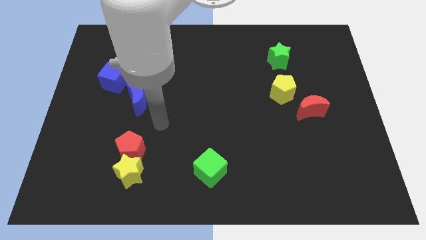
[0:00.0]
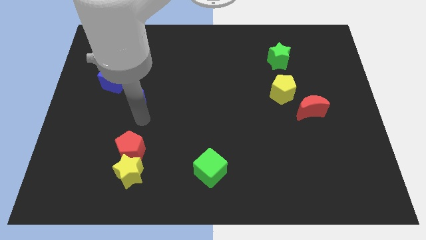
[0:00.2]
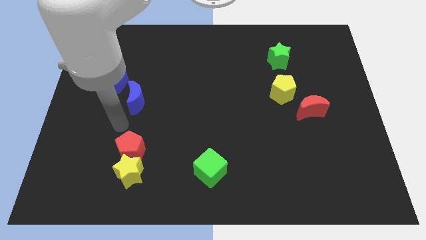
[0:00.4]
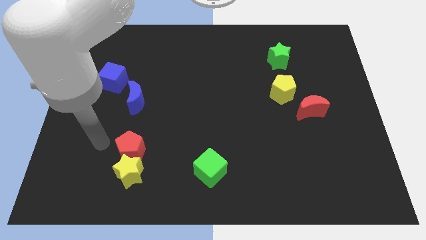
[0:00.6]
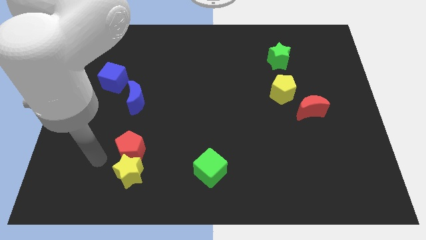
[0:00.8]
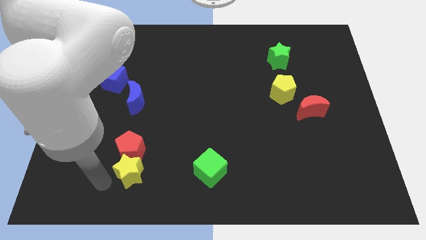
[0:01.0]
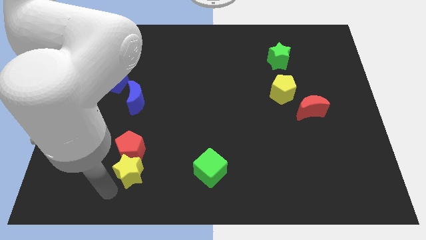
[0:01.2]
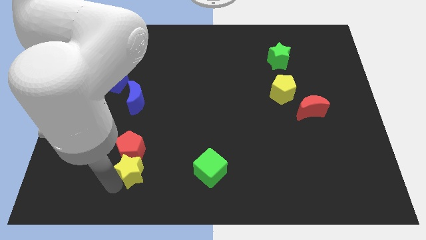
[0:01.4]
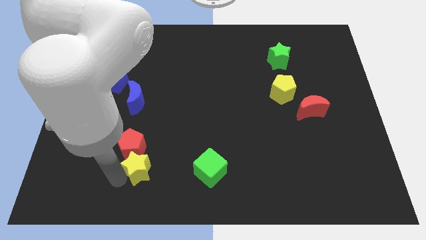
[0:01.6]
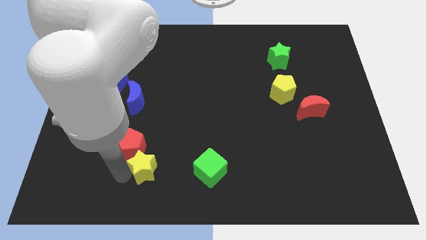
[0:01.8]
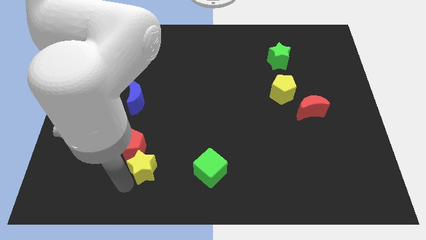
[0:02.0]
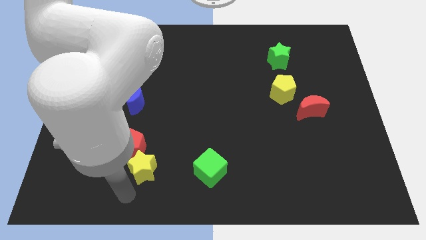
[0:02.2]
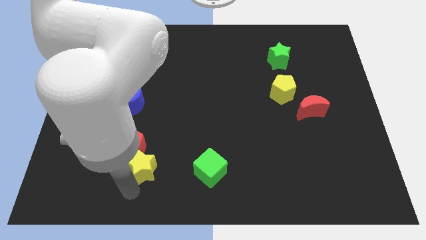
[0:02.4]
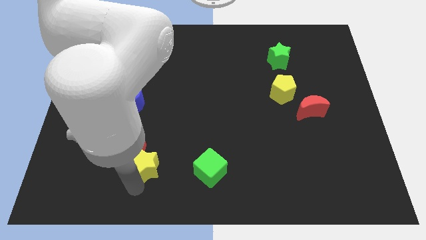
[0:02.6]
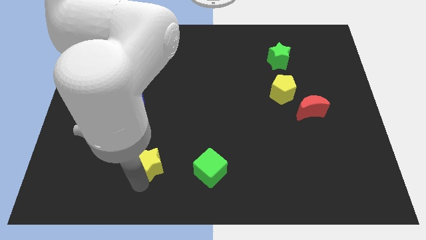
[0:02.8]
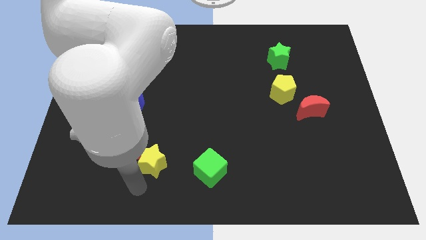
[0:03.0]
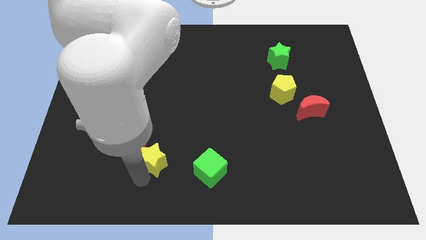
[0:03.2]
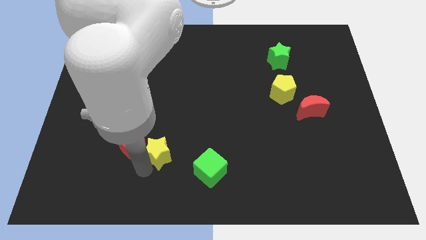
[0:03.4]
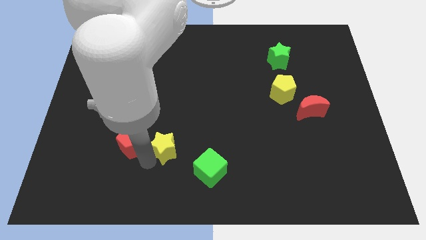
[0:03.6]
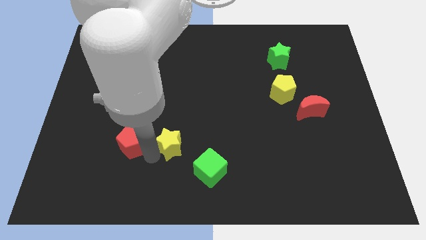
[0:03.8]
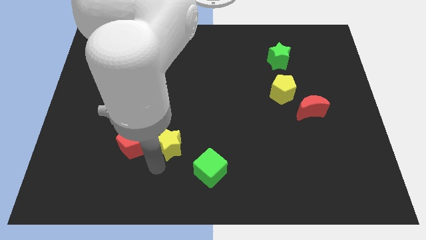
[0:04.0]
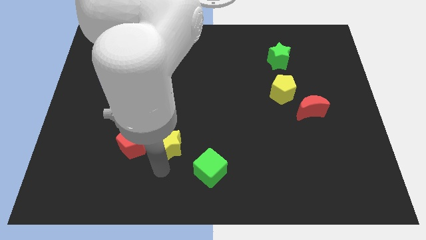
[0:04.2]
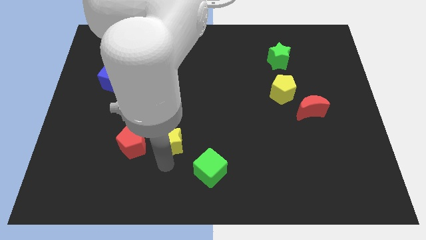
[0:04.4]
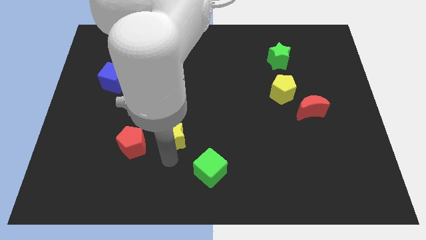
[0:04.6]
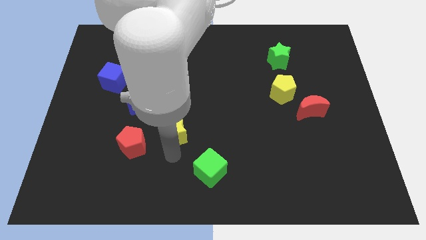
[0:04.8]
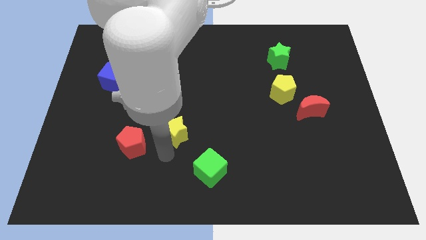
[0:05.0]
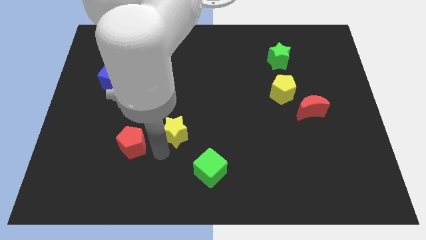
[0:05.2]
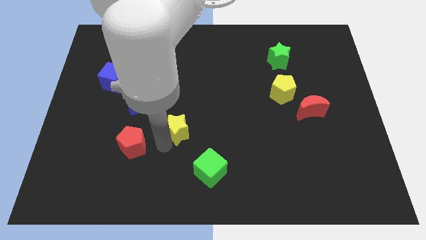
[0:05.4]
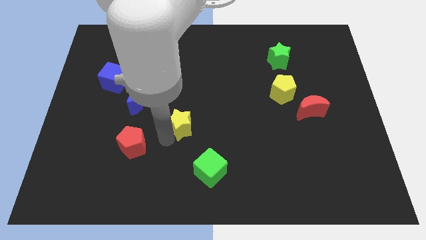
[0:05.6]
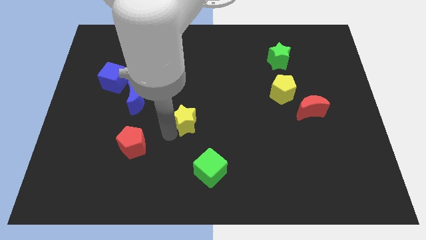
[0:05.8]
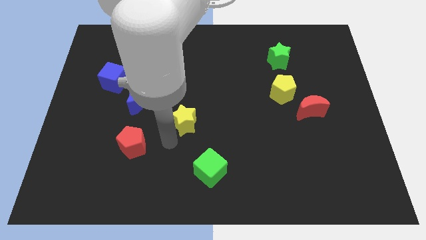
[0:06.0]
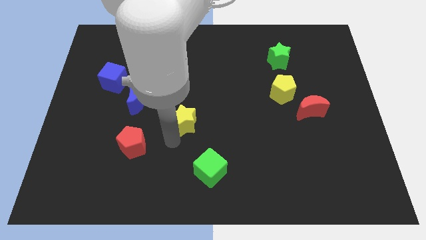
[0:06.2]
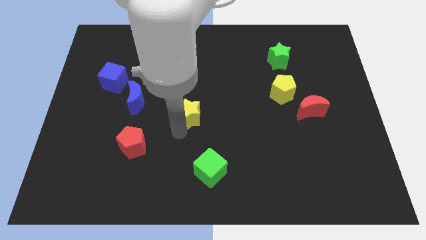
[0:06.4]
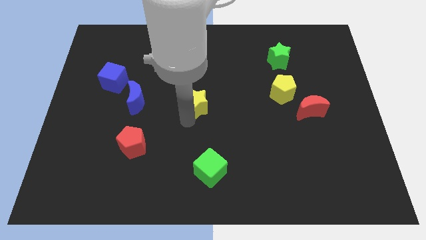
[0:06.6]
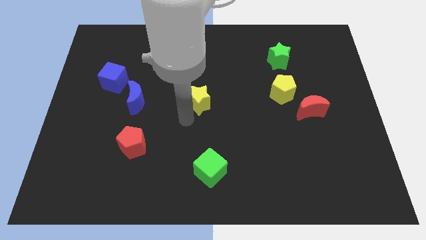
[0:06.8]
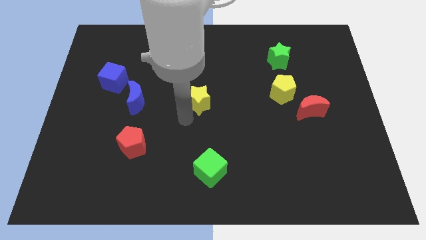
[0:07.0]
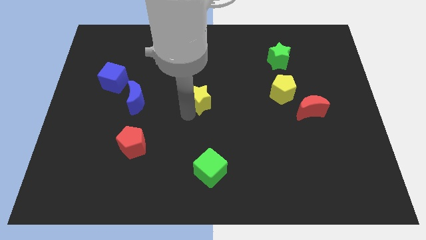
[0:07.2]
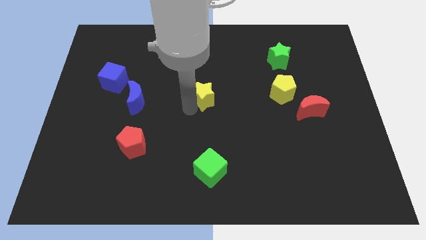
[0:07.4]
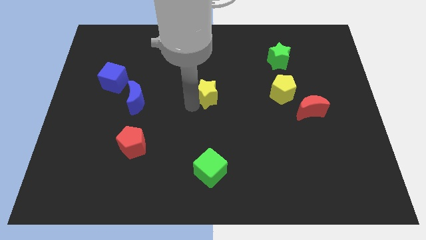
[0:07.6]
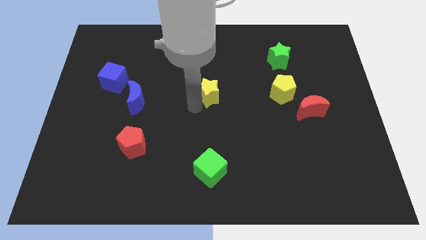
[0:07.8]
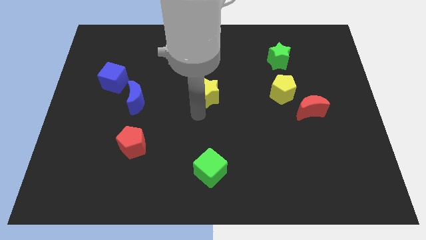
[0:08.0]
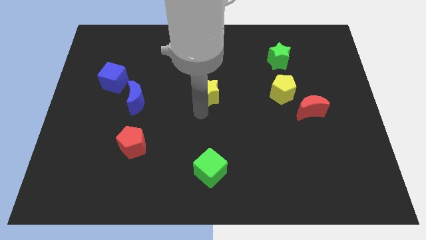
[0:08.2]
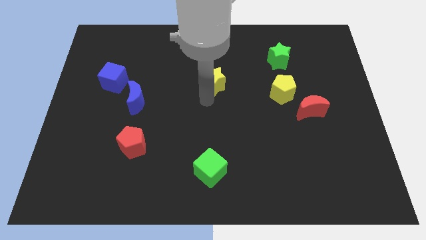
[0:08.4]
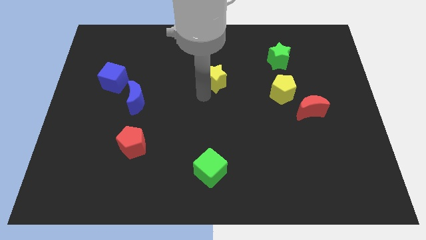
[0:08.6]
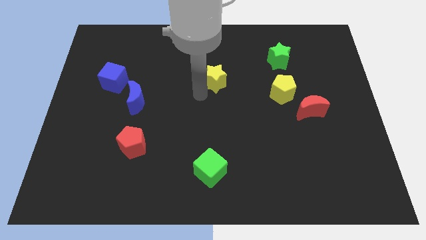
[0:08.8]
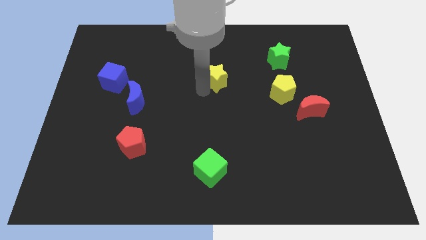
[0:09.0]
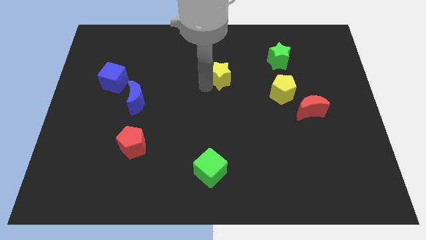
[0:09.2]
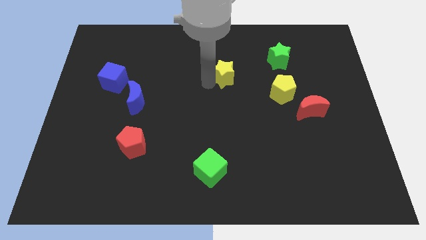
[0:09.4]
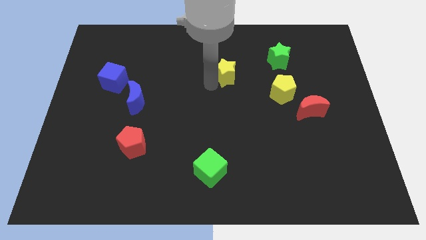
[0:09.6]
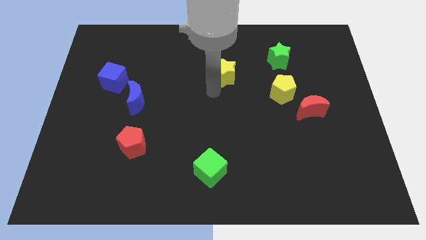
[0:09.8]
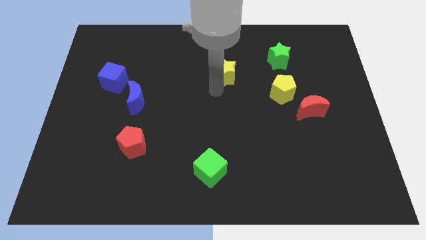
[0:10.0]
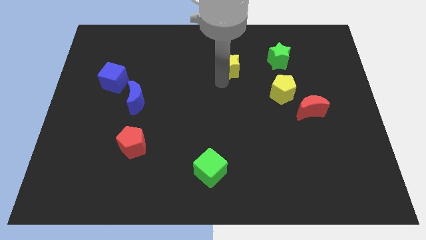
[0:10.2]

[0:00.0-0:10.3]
put the yellow star just left of the green star

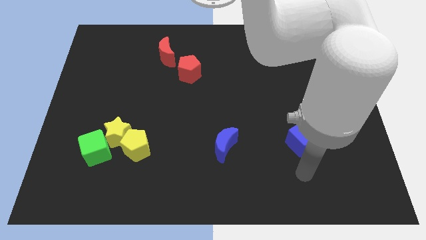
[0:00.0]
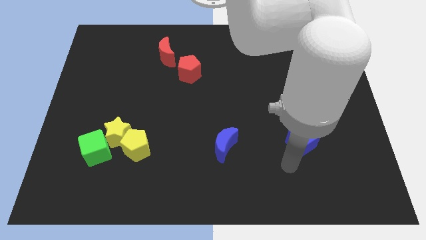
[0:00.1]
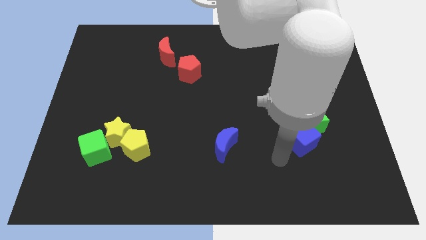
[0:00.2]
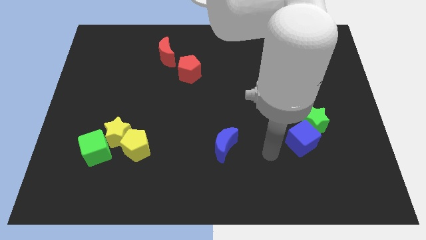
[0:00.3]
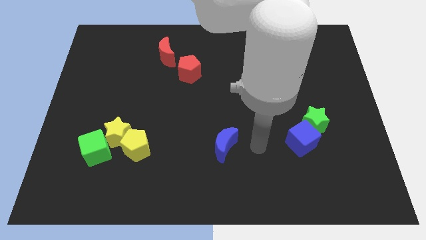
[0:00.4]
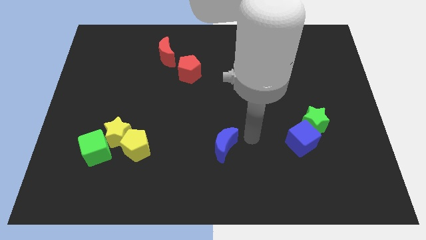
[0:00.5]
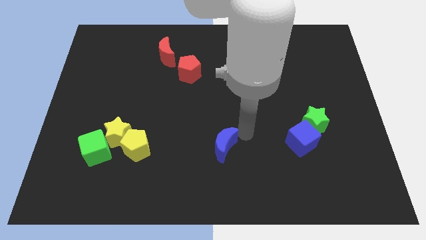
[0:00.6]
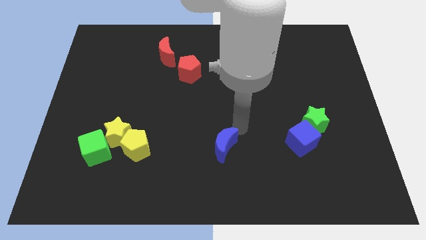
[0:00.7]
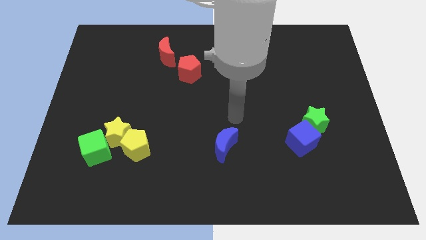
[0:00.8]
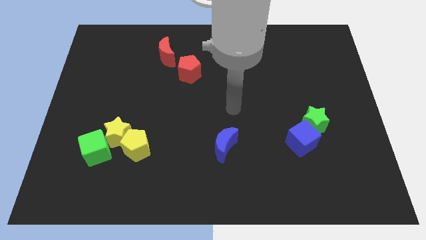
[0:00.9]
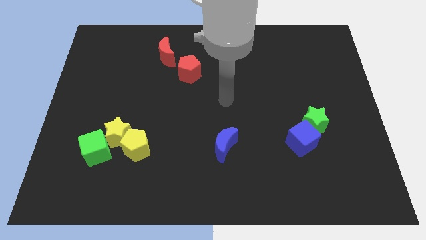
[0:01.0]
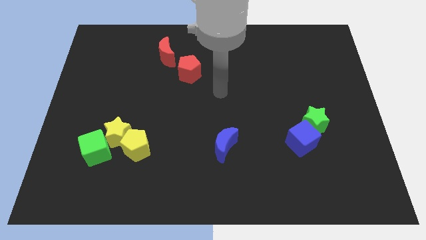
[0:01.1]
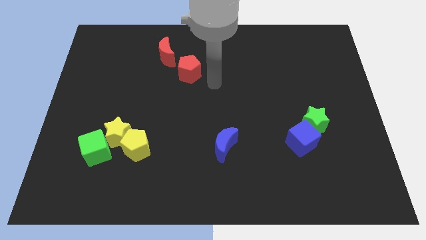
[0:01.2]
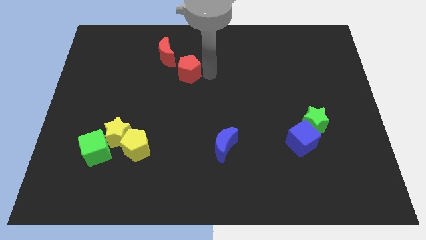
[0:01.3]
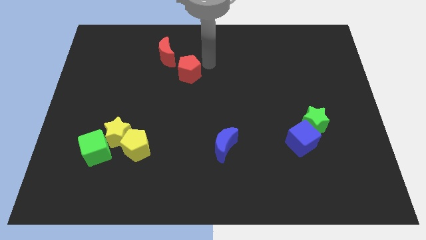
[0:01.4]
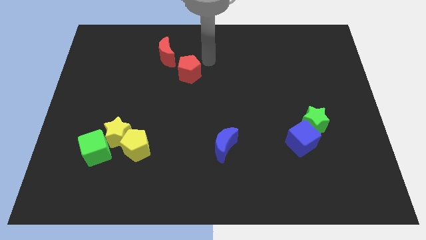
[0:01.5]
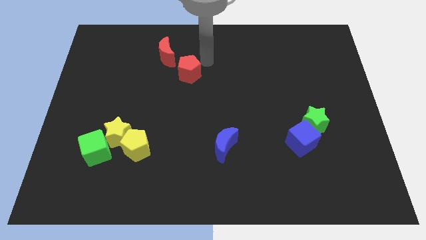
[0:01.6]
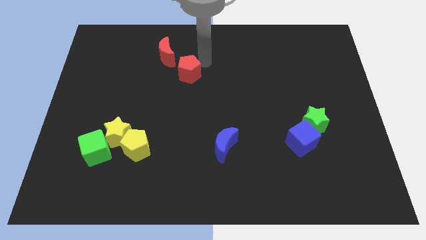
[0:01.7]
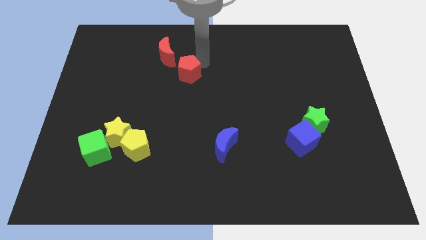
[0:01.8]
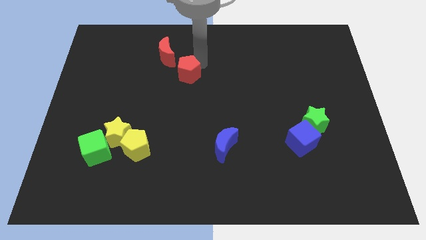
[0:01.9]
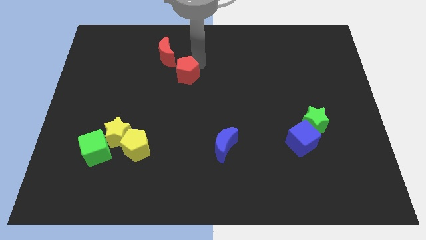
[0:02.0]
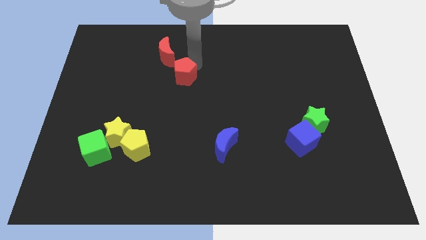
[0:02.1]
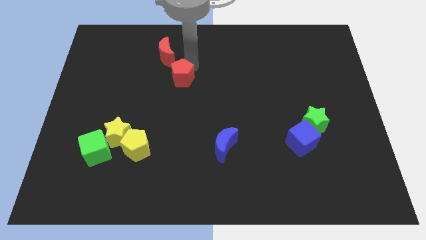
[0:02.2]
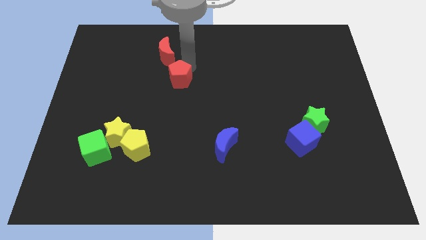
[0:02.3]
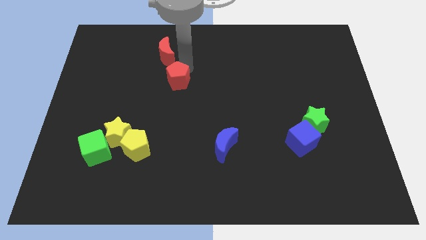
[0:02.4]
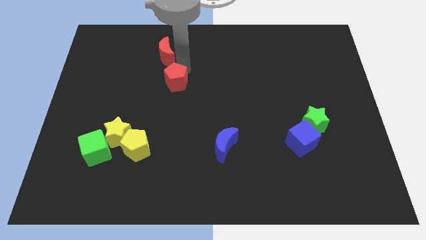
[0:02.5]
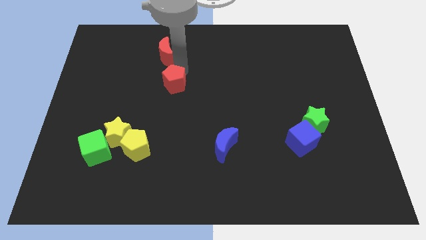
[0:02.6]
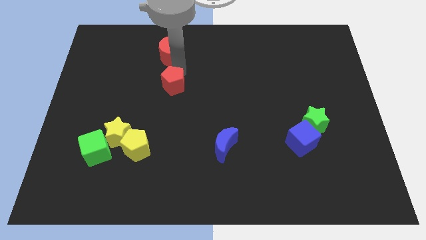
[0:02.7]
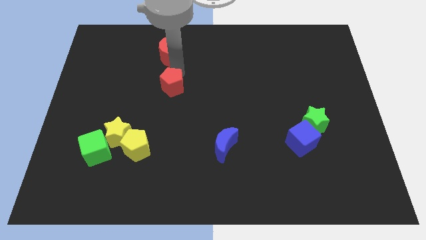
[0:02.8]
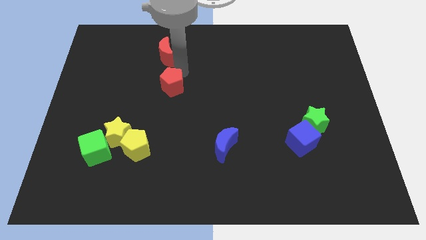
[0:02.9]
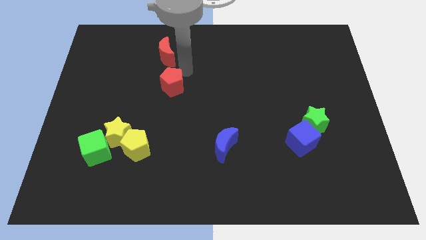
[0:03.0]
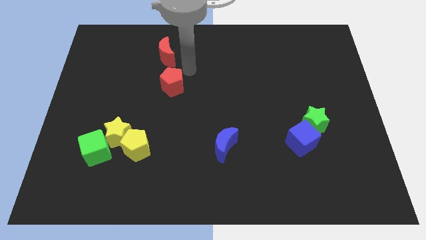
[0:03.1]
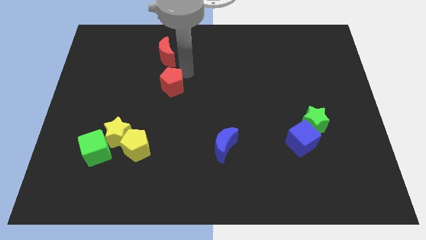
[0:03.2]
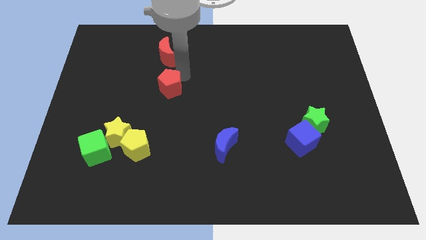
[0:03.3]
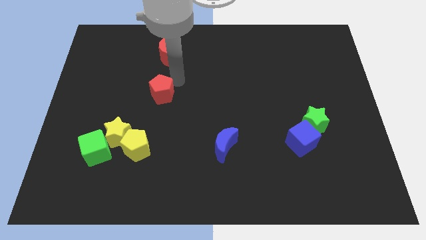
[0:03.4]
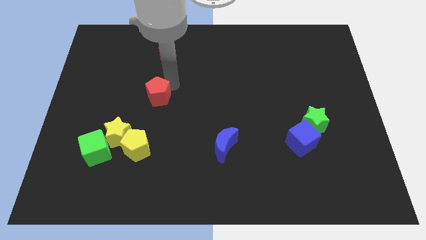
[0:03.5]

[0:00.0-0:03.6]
push the red pentagon to the top of the yellow pentagon
